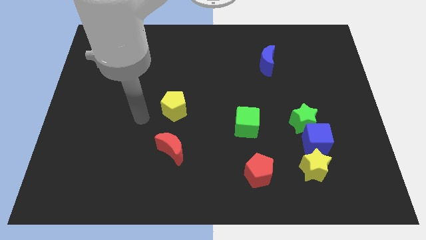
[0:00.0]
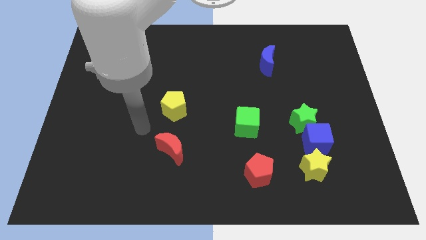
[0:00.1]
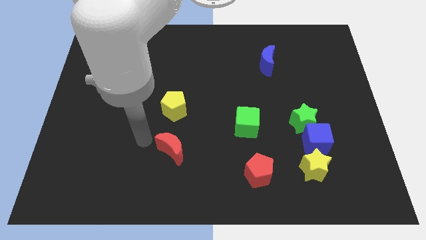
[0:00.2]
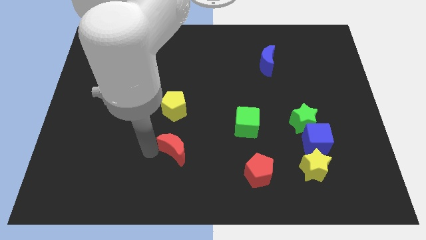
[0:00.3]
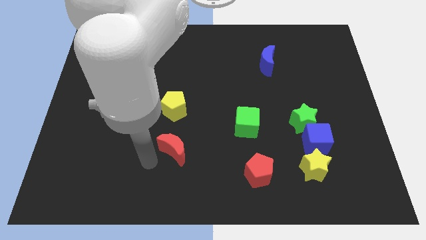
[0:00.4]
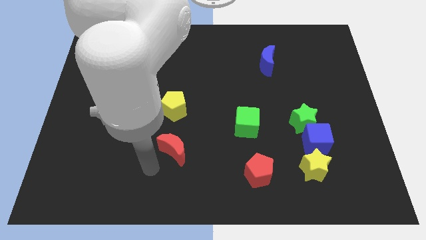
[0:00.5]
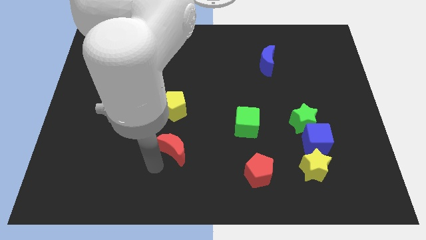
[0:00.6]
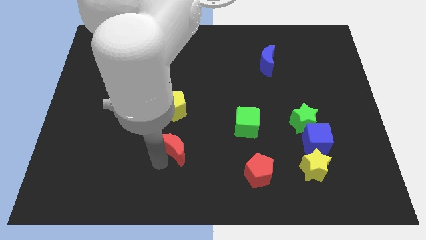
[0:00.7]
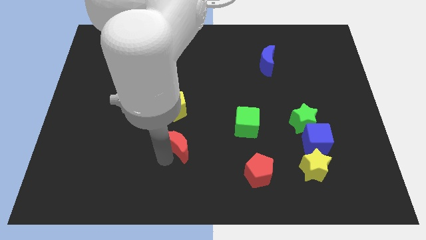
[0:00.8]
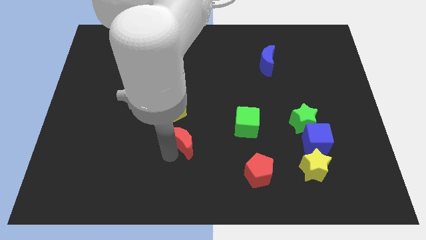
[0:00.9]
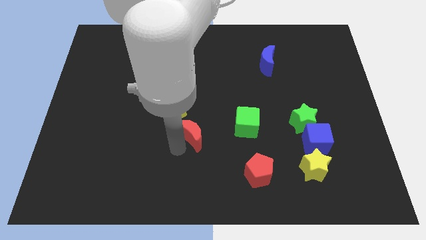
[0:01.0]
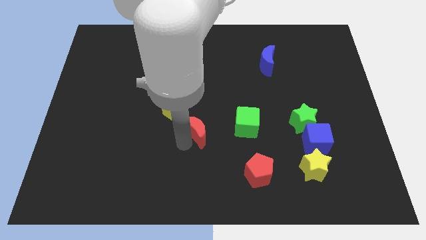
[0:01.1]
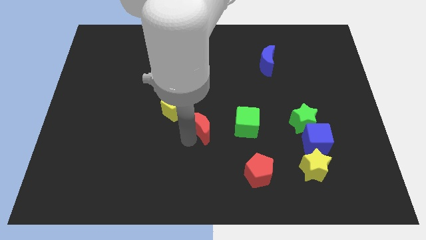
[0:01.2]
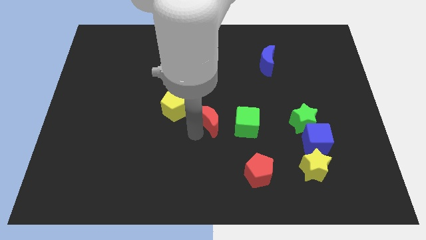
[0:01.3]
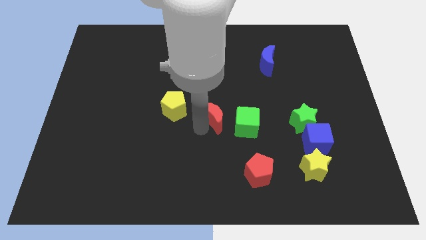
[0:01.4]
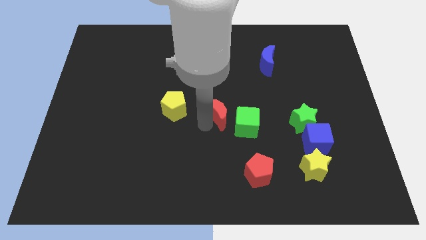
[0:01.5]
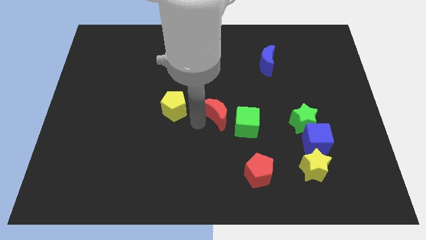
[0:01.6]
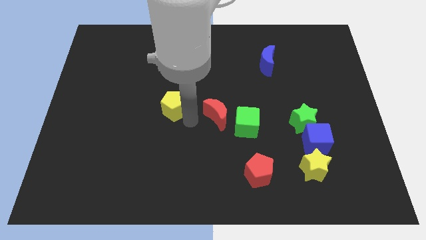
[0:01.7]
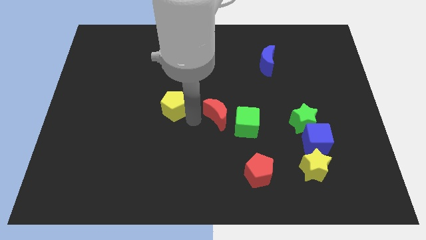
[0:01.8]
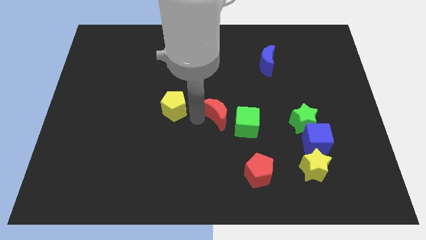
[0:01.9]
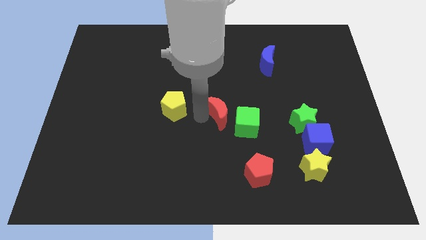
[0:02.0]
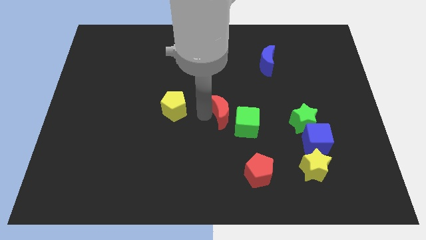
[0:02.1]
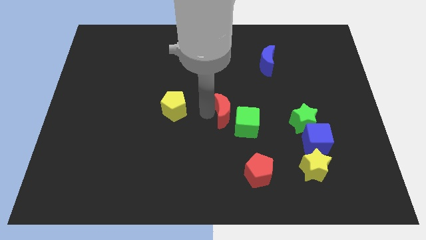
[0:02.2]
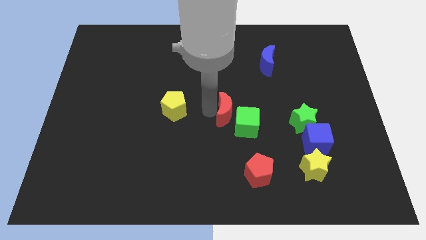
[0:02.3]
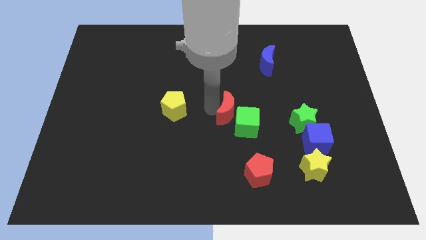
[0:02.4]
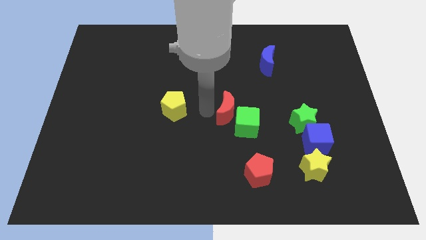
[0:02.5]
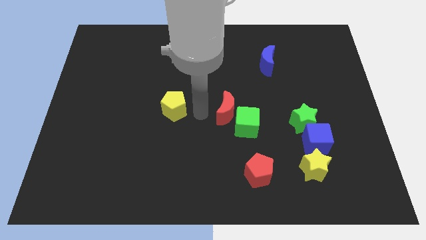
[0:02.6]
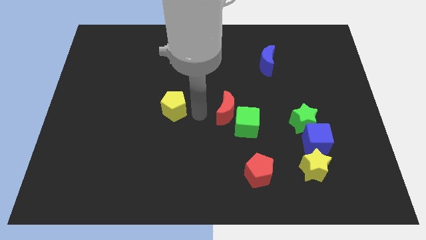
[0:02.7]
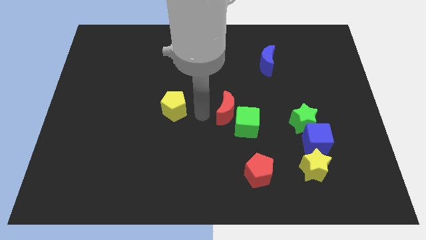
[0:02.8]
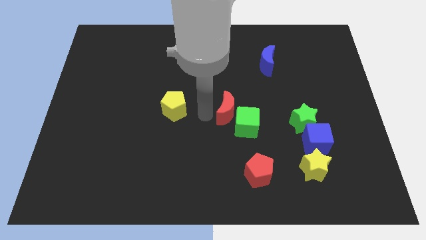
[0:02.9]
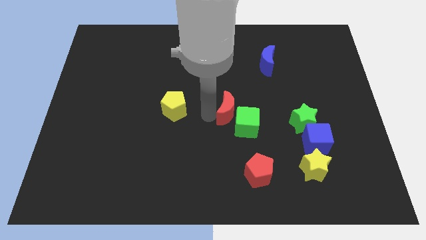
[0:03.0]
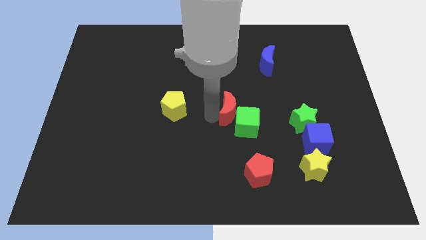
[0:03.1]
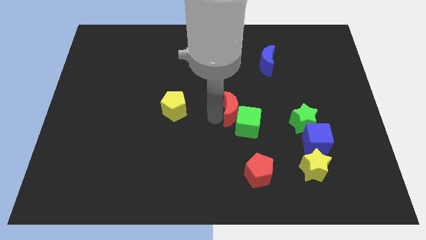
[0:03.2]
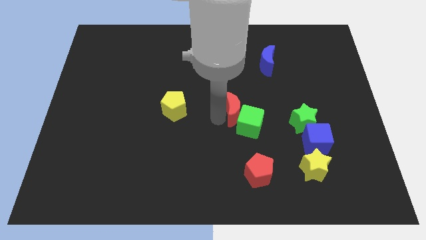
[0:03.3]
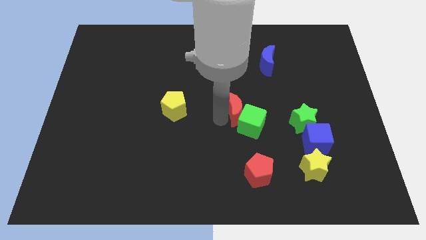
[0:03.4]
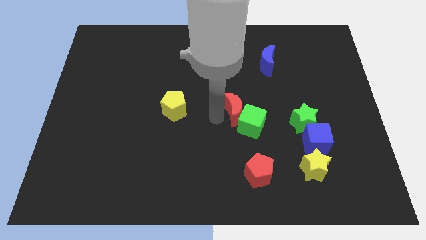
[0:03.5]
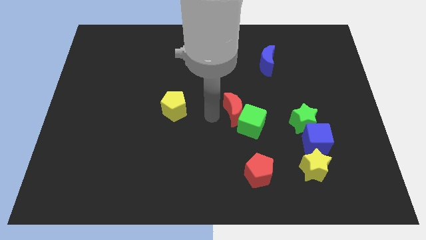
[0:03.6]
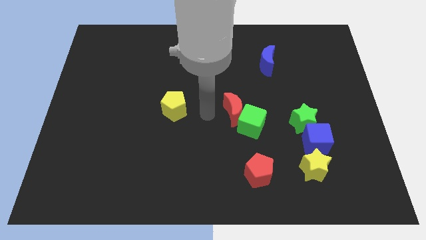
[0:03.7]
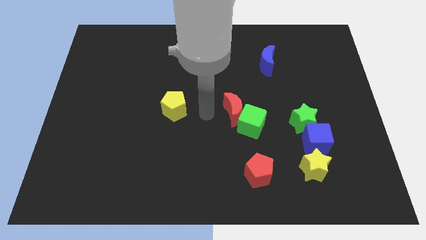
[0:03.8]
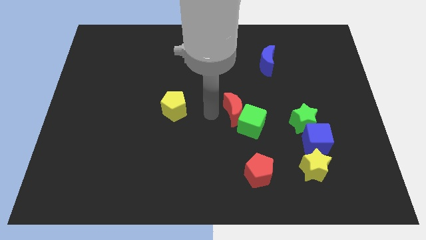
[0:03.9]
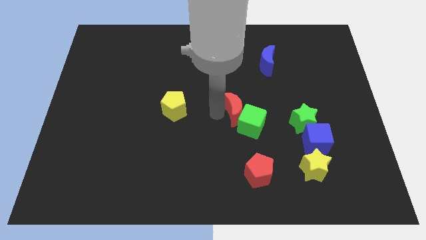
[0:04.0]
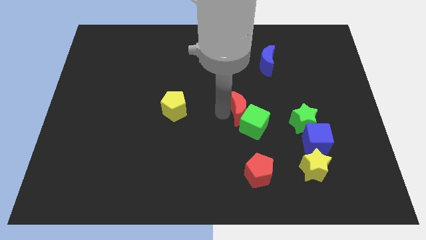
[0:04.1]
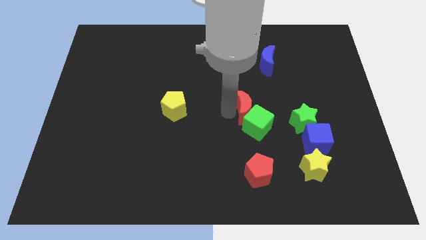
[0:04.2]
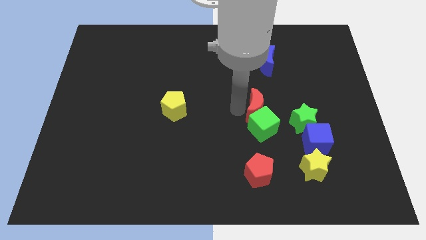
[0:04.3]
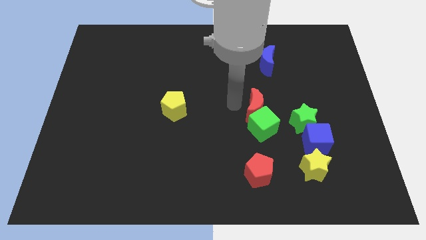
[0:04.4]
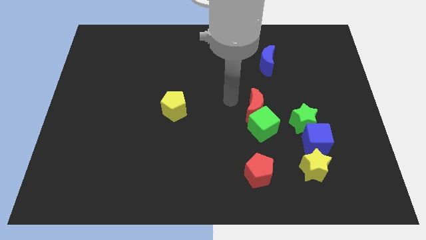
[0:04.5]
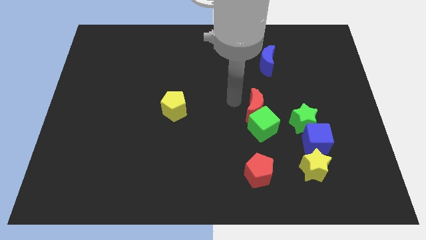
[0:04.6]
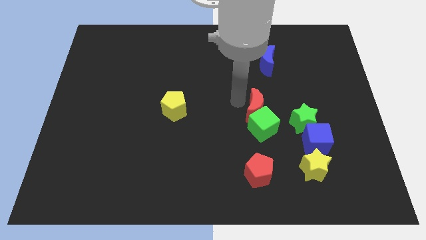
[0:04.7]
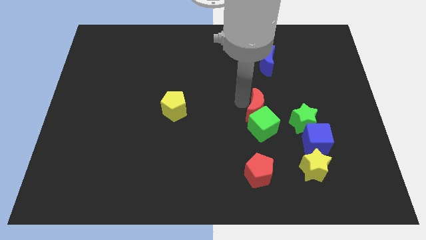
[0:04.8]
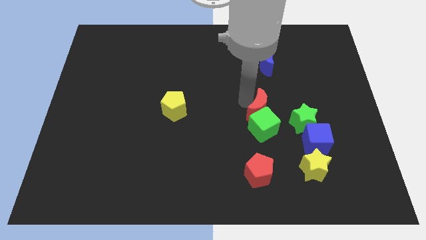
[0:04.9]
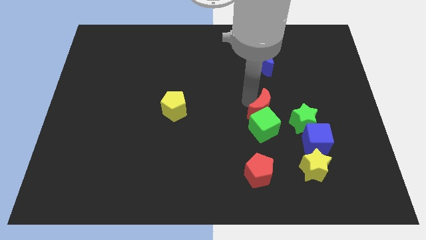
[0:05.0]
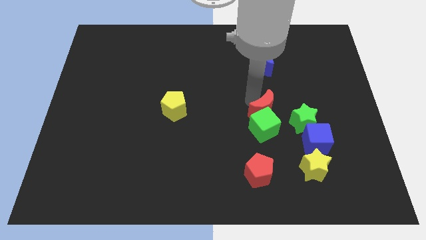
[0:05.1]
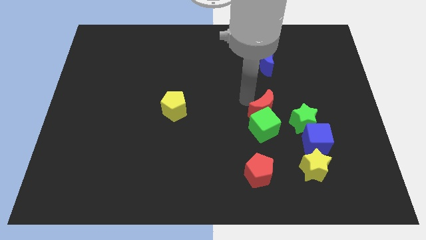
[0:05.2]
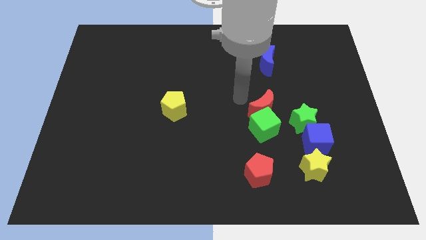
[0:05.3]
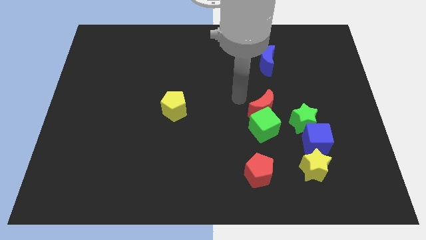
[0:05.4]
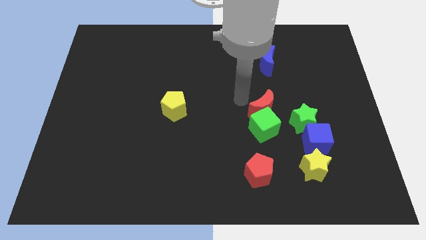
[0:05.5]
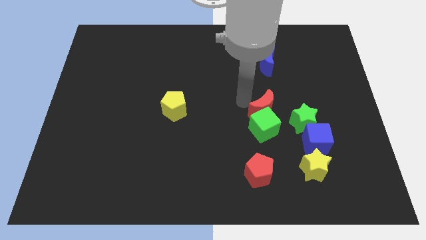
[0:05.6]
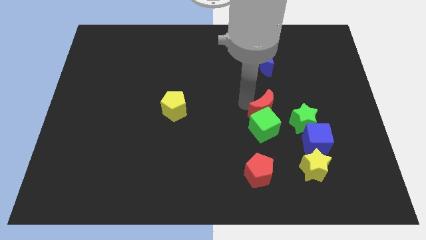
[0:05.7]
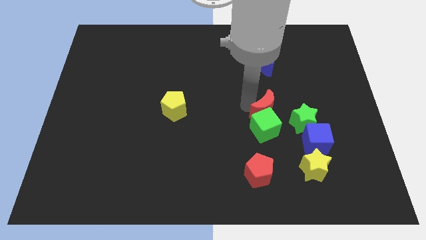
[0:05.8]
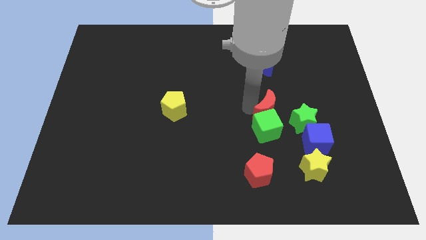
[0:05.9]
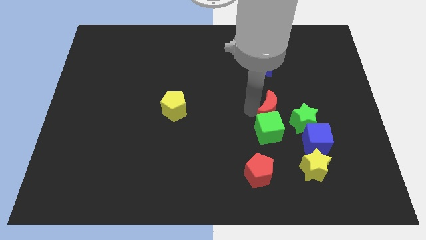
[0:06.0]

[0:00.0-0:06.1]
push the red moon to the top left side of the blue cube

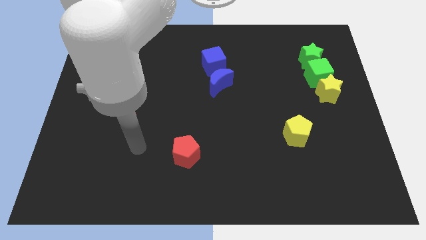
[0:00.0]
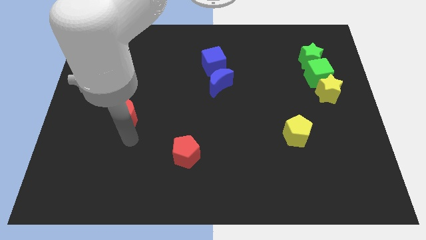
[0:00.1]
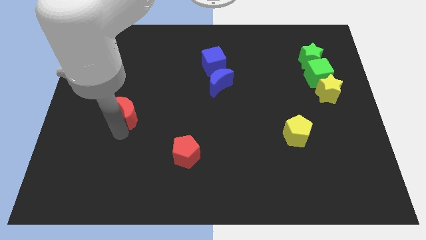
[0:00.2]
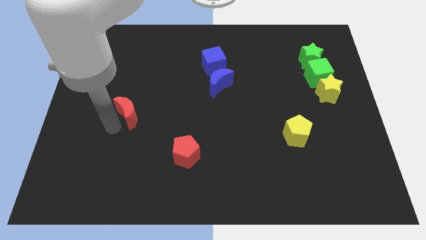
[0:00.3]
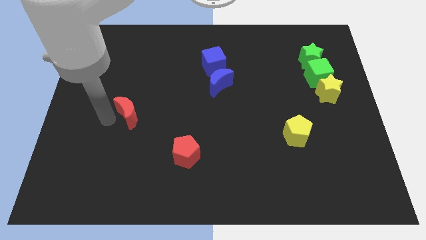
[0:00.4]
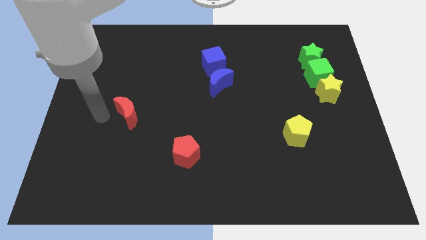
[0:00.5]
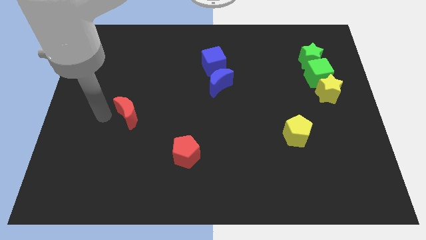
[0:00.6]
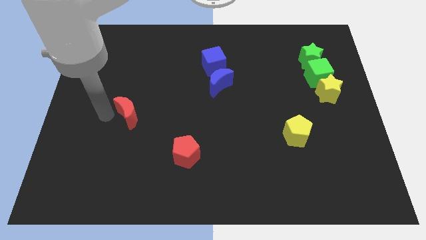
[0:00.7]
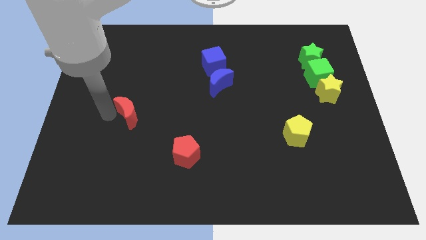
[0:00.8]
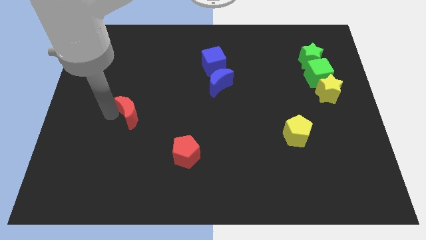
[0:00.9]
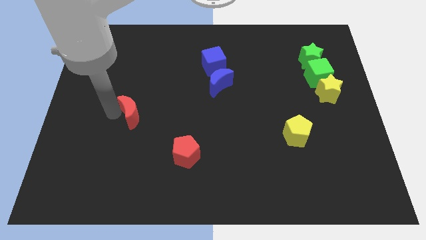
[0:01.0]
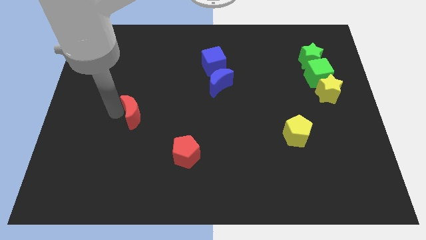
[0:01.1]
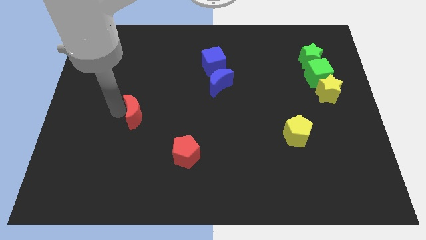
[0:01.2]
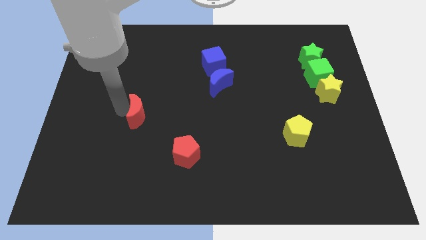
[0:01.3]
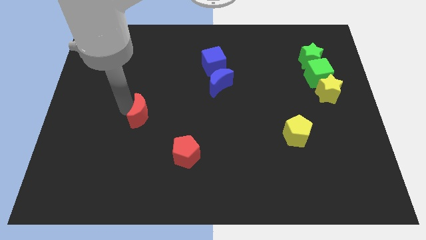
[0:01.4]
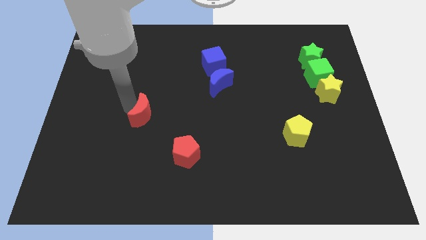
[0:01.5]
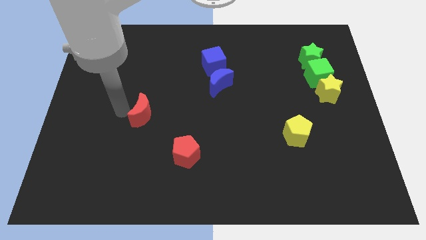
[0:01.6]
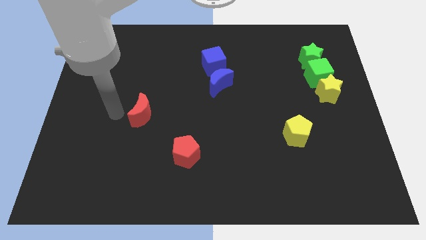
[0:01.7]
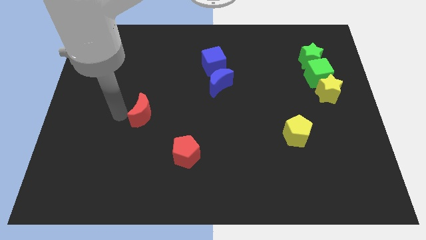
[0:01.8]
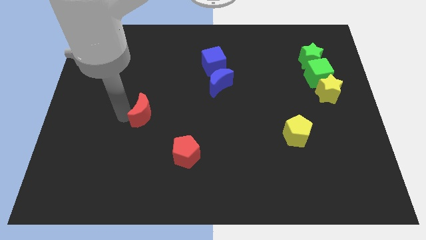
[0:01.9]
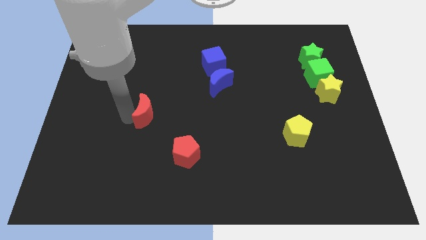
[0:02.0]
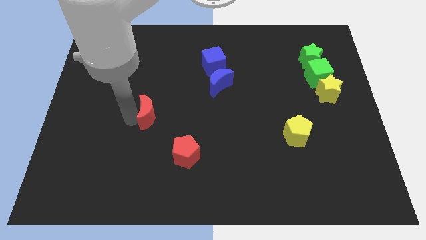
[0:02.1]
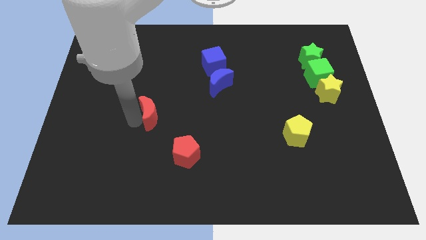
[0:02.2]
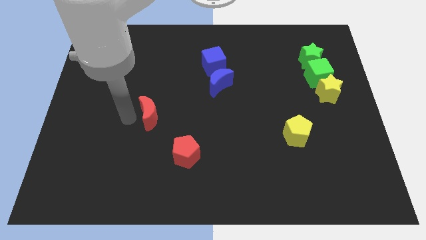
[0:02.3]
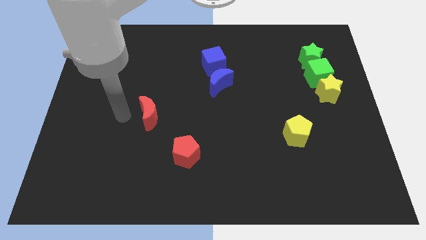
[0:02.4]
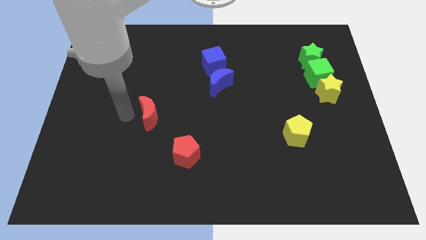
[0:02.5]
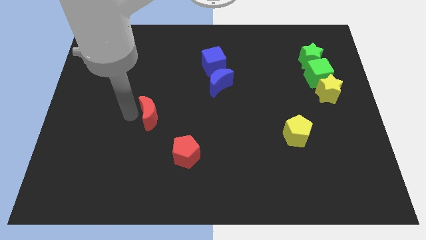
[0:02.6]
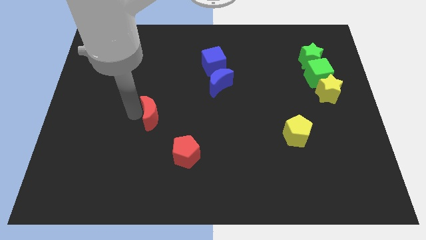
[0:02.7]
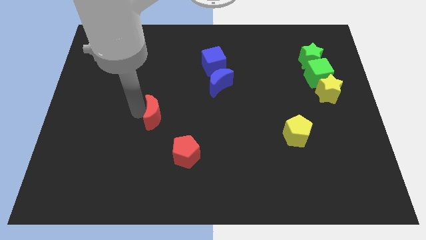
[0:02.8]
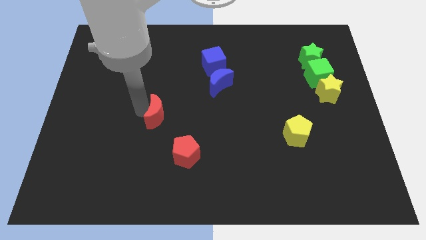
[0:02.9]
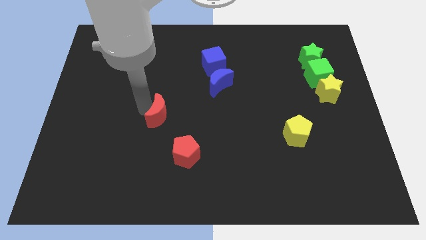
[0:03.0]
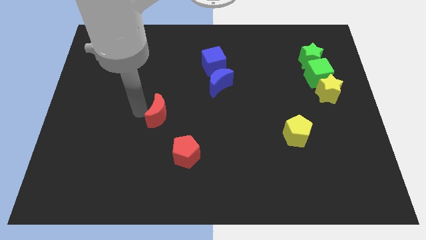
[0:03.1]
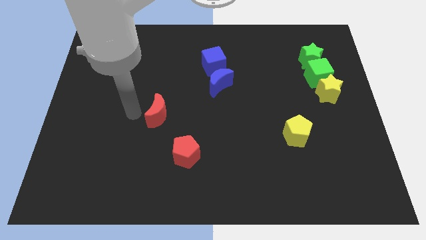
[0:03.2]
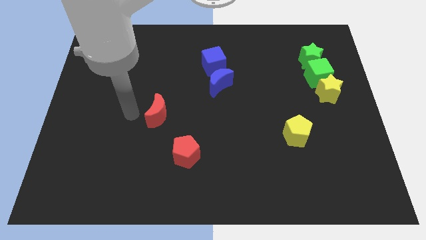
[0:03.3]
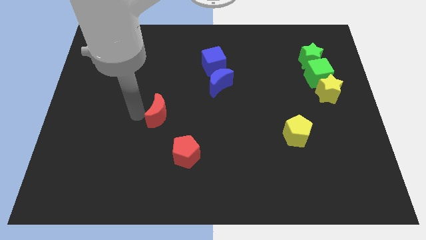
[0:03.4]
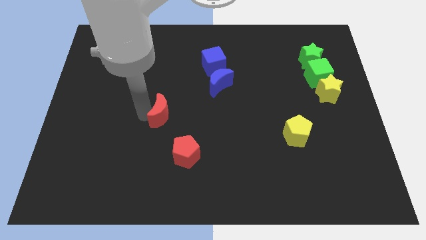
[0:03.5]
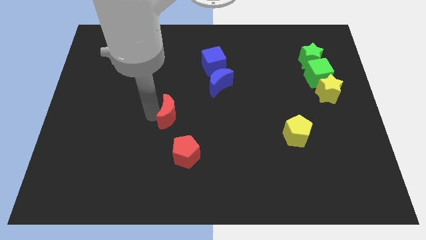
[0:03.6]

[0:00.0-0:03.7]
push the red moon above the red pentagon
